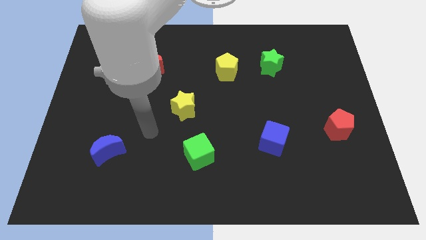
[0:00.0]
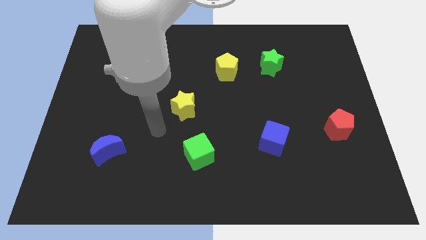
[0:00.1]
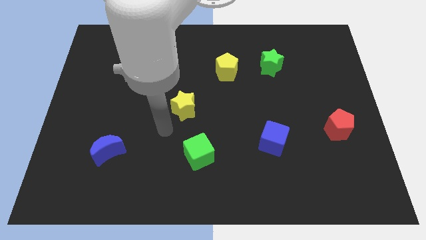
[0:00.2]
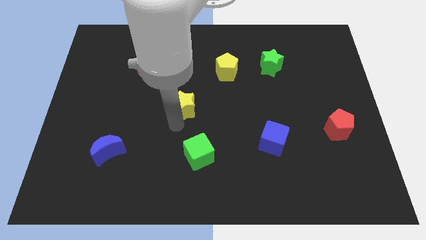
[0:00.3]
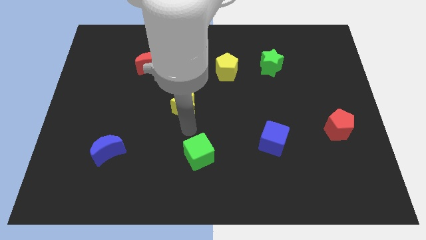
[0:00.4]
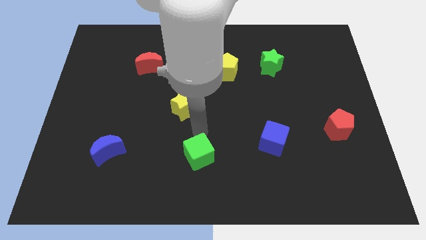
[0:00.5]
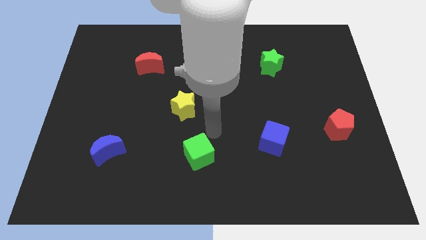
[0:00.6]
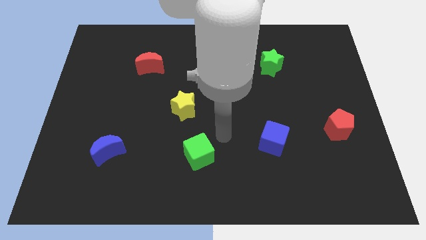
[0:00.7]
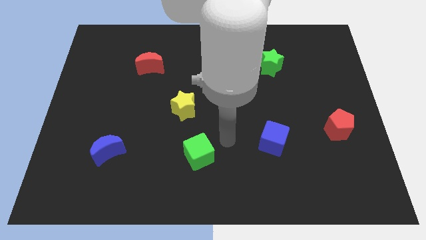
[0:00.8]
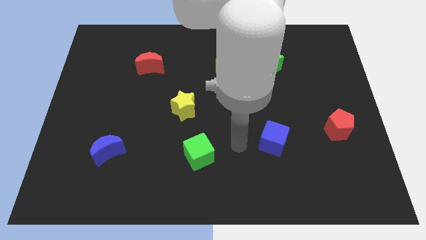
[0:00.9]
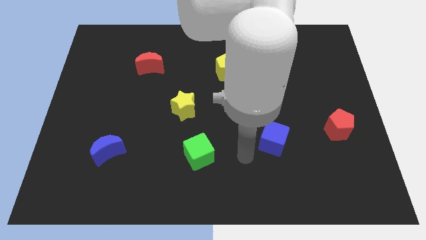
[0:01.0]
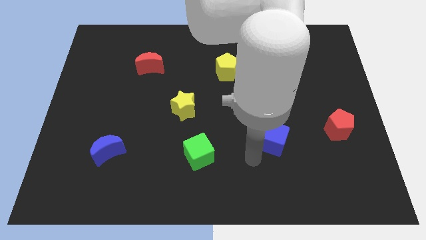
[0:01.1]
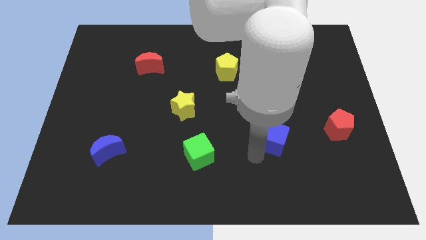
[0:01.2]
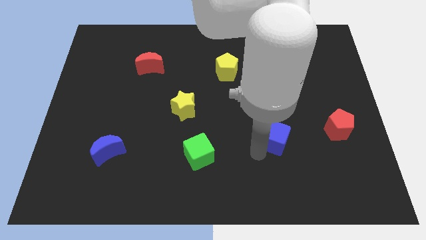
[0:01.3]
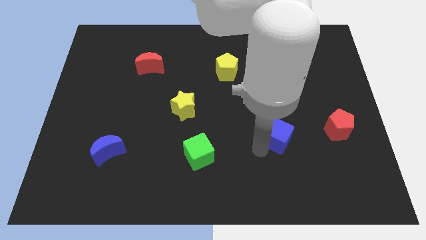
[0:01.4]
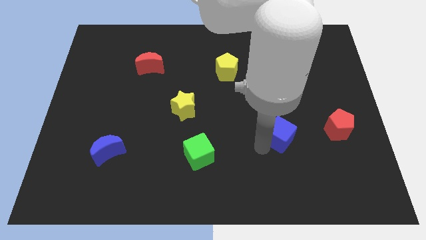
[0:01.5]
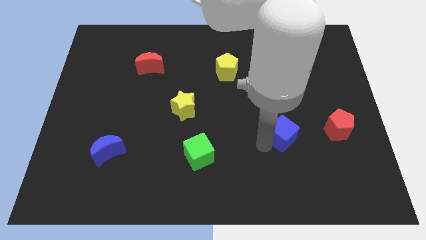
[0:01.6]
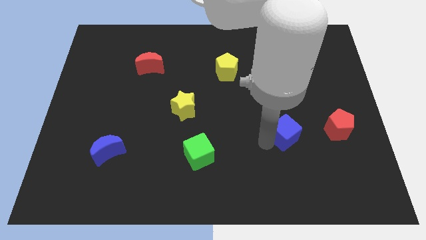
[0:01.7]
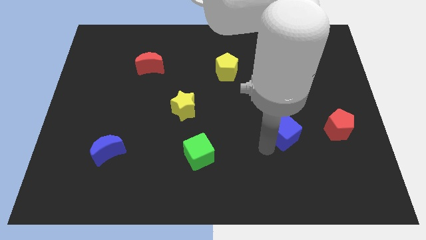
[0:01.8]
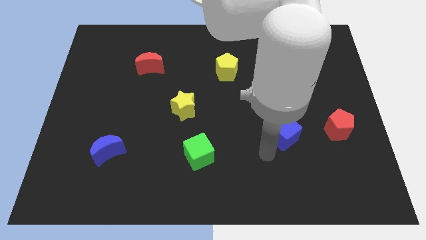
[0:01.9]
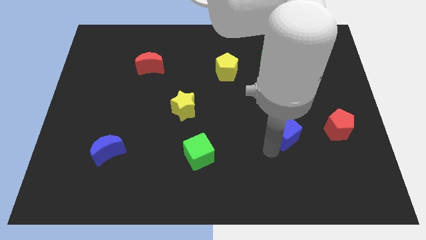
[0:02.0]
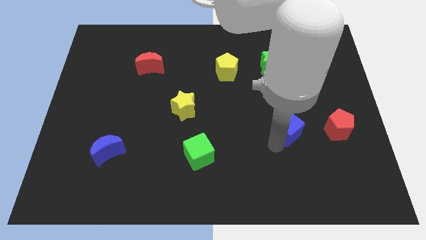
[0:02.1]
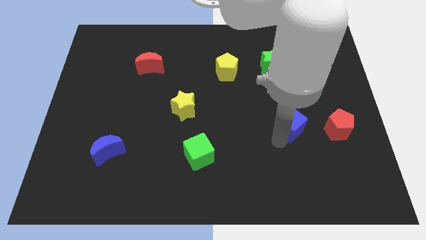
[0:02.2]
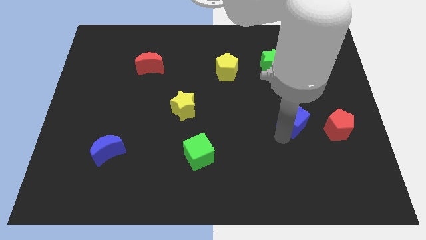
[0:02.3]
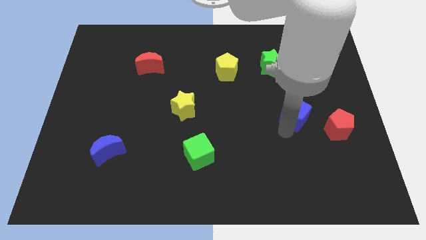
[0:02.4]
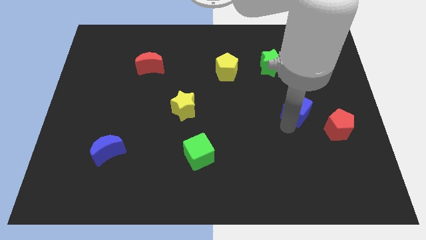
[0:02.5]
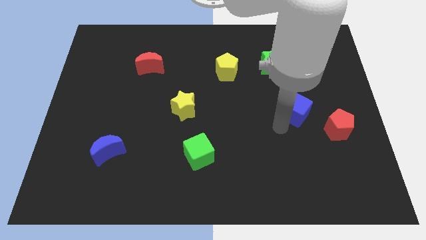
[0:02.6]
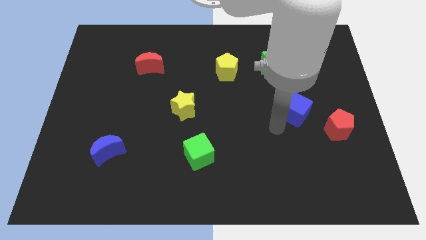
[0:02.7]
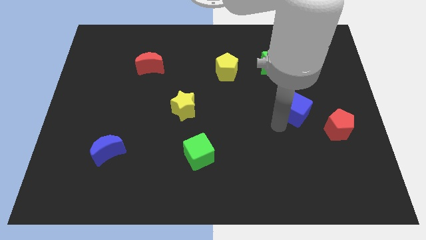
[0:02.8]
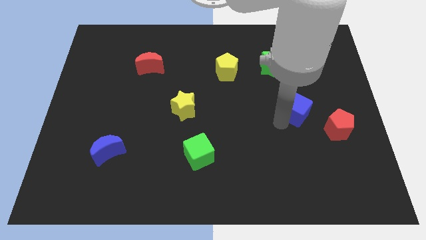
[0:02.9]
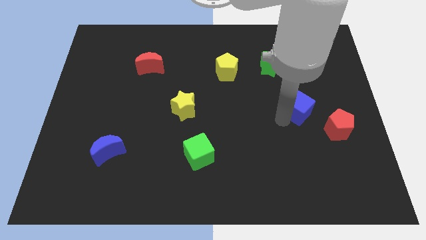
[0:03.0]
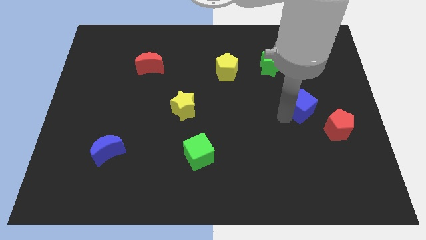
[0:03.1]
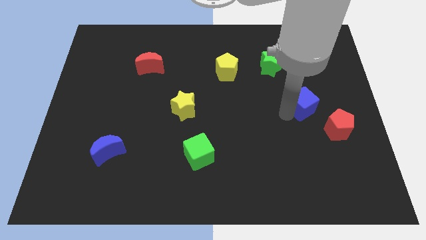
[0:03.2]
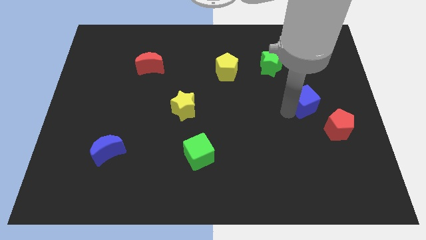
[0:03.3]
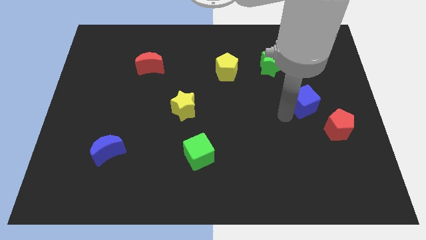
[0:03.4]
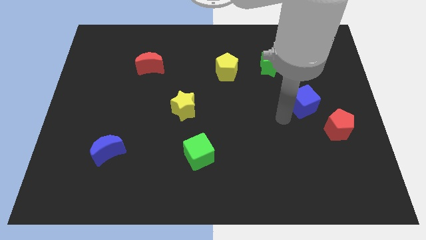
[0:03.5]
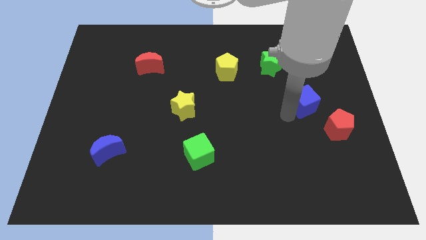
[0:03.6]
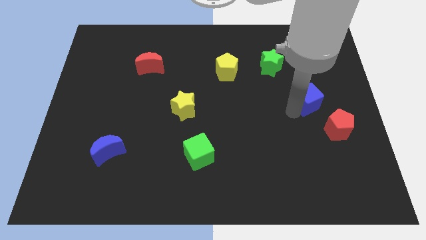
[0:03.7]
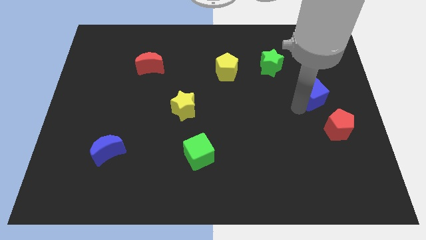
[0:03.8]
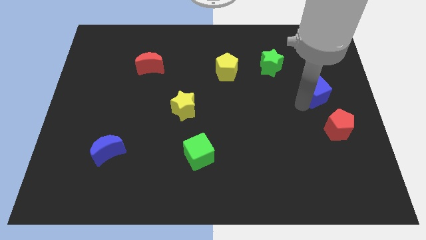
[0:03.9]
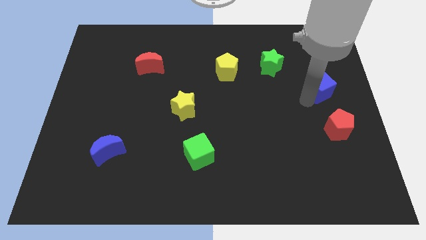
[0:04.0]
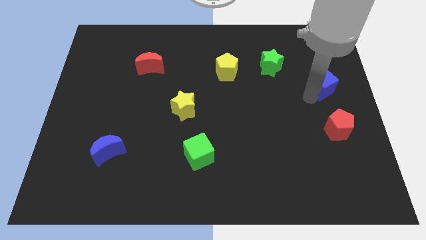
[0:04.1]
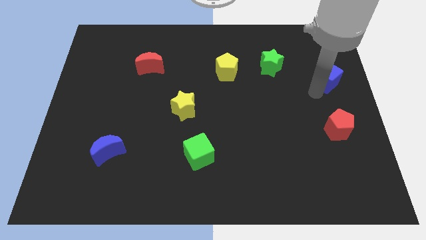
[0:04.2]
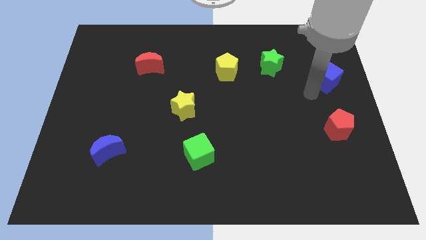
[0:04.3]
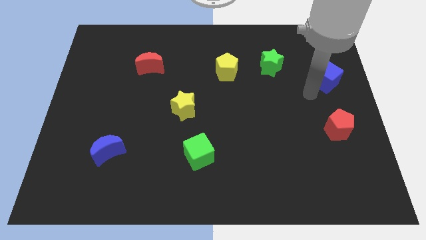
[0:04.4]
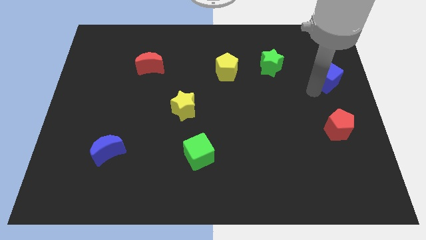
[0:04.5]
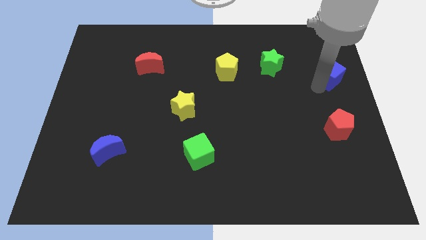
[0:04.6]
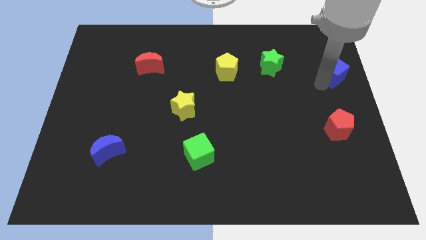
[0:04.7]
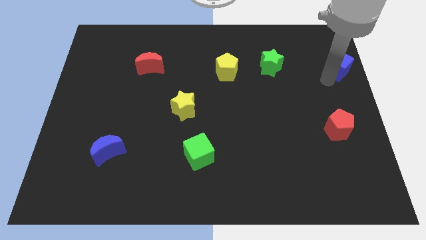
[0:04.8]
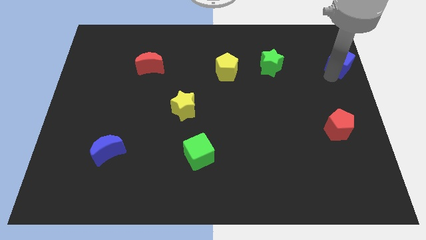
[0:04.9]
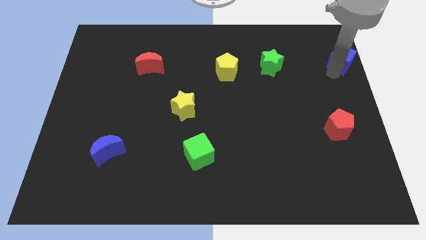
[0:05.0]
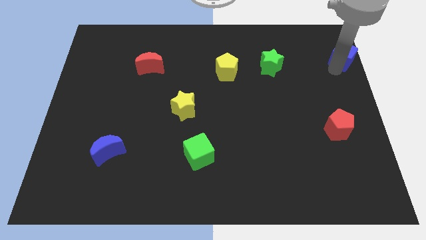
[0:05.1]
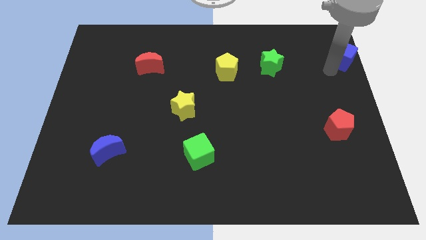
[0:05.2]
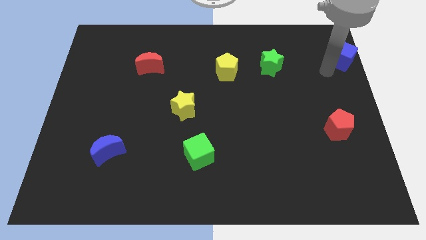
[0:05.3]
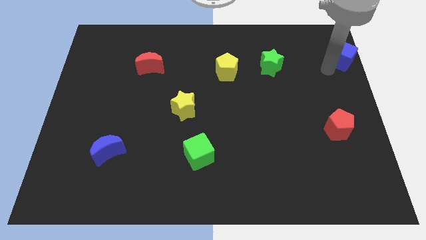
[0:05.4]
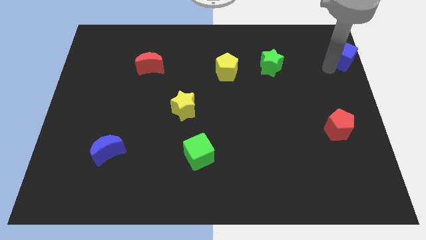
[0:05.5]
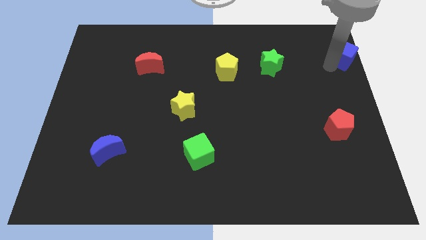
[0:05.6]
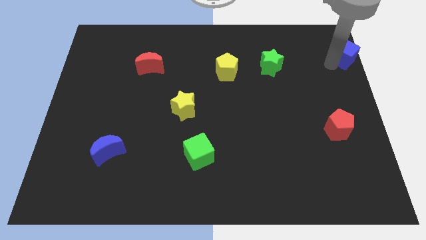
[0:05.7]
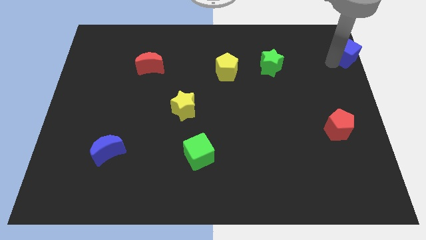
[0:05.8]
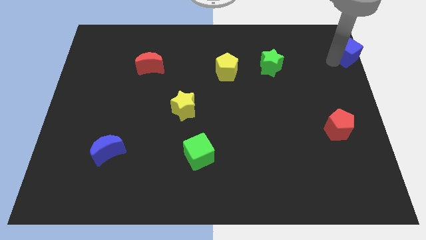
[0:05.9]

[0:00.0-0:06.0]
push the blue cube to the top right of the board
